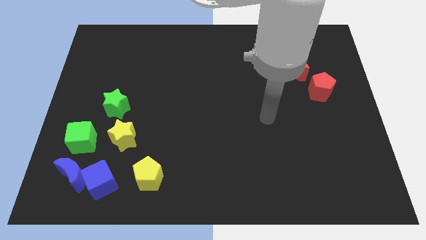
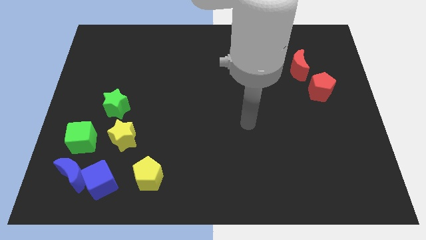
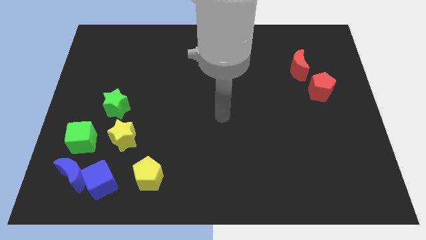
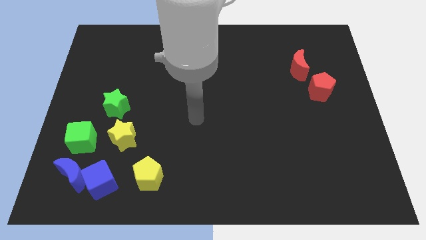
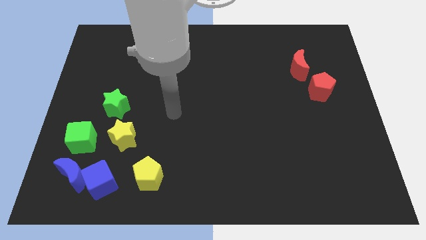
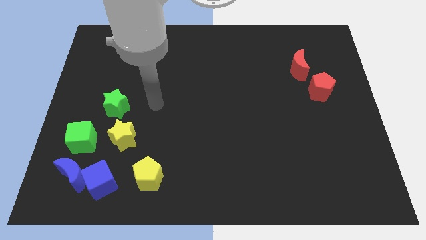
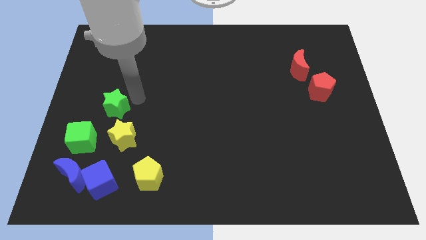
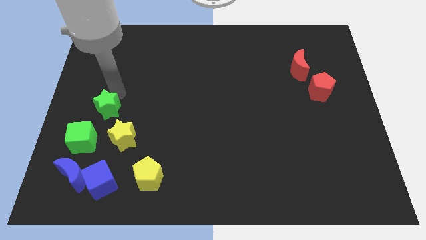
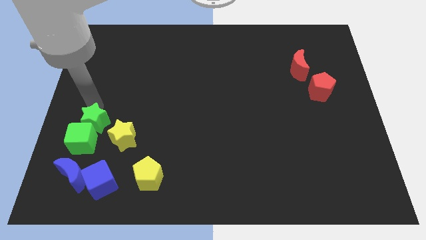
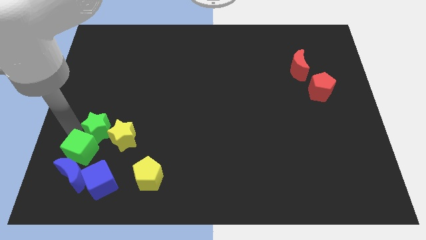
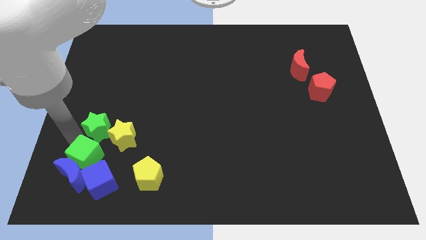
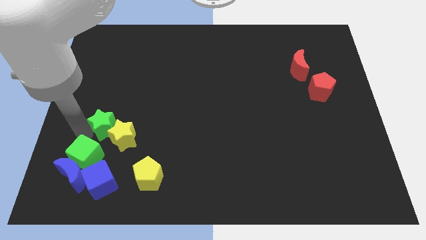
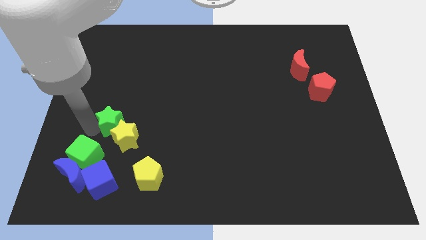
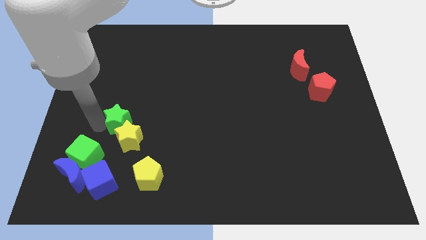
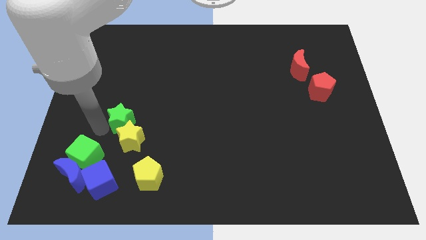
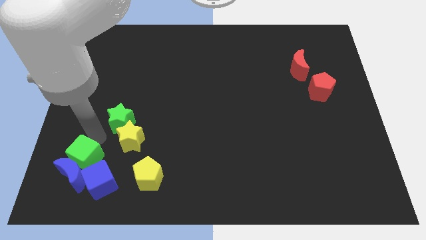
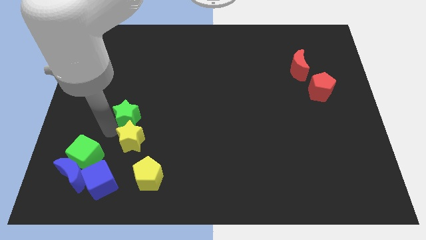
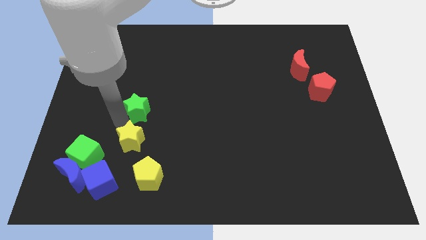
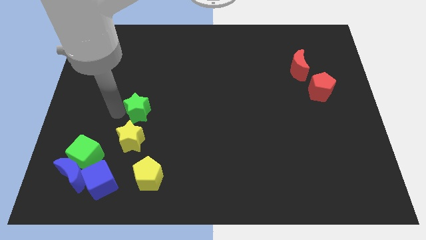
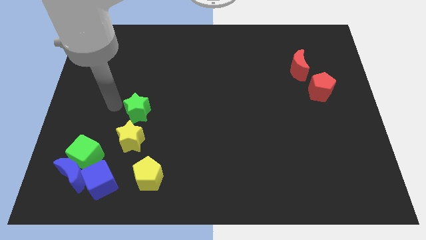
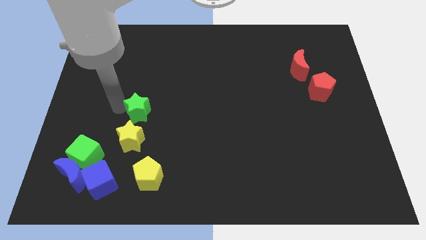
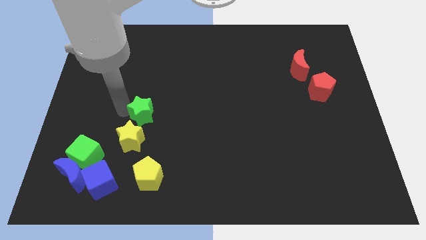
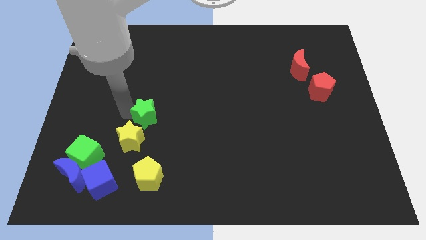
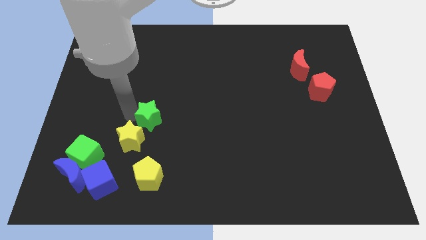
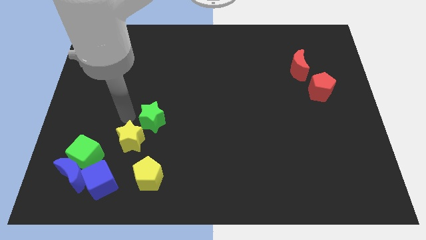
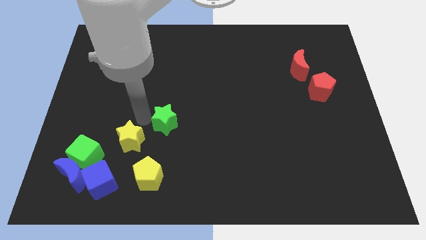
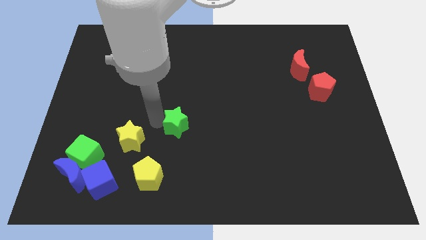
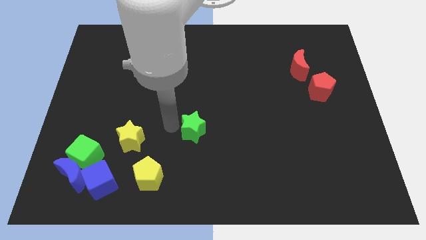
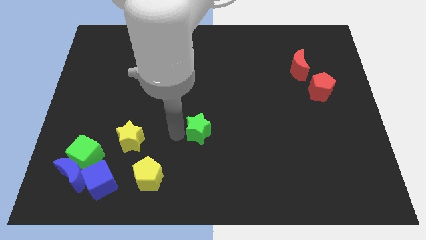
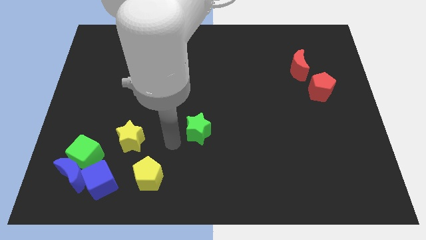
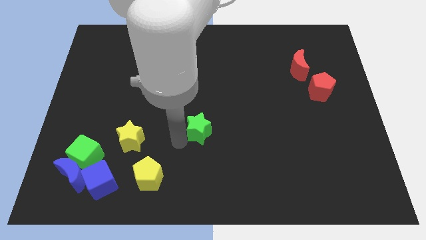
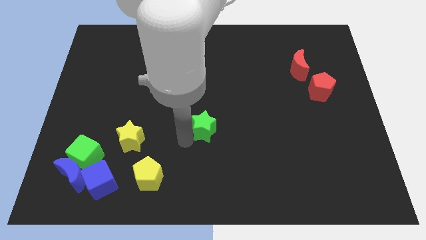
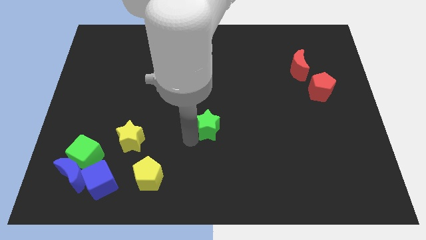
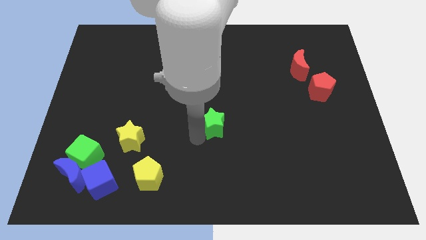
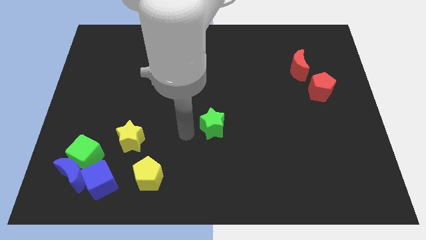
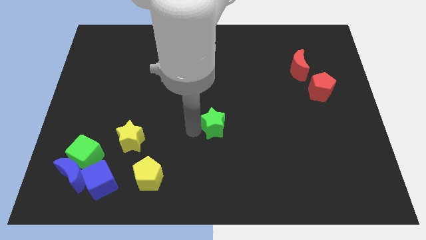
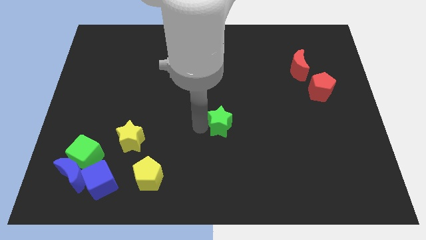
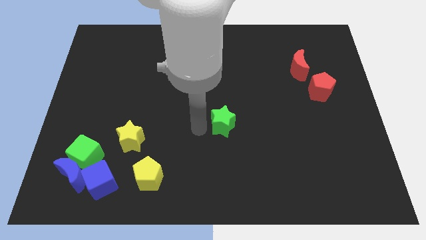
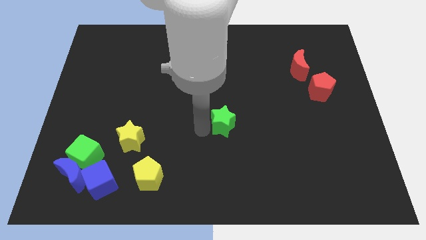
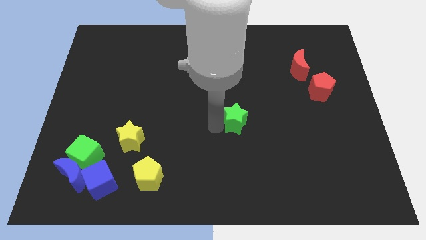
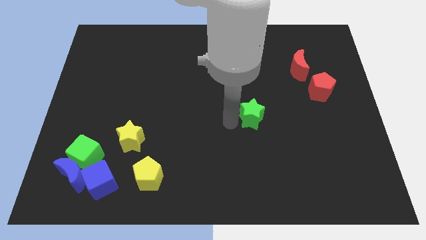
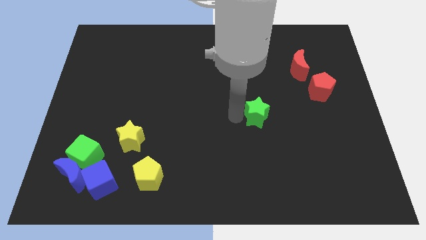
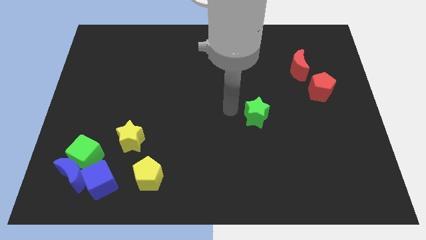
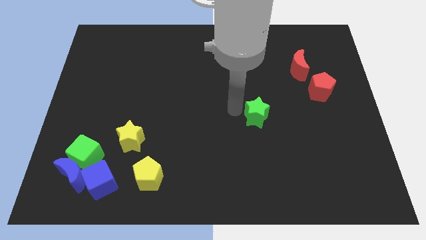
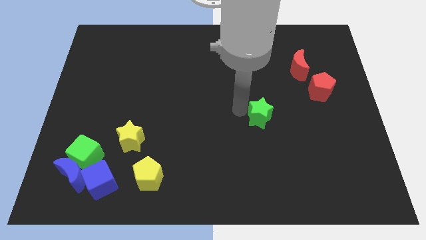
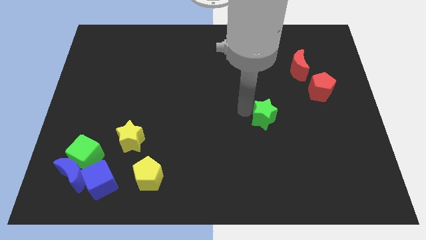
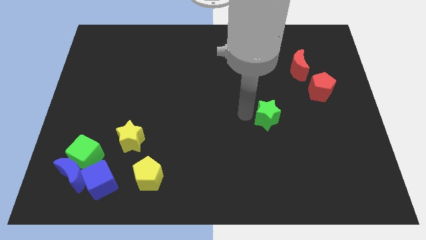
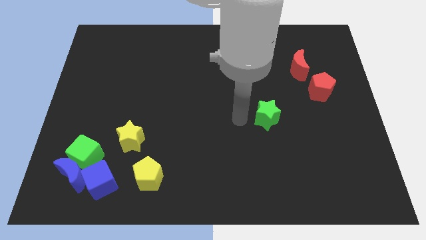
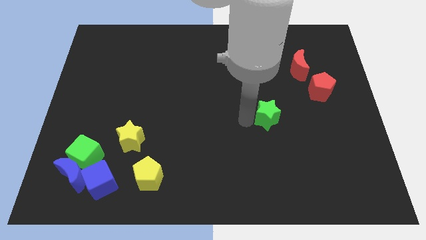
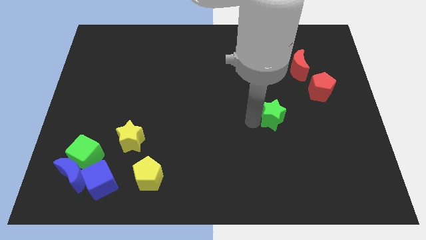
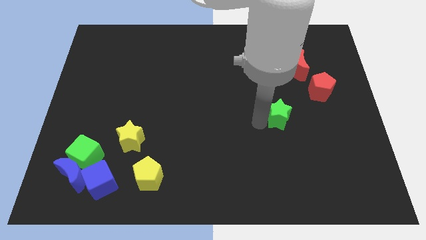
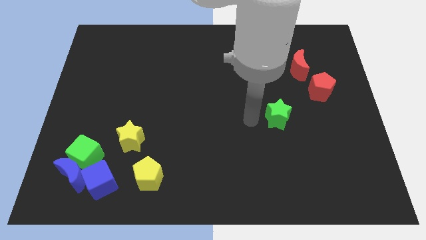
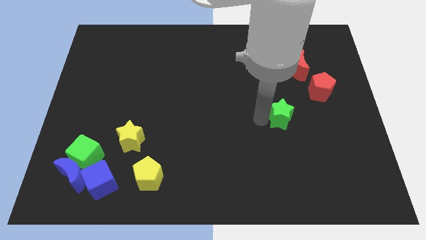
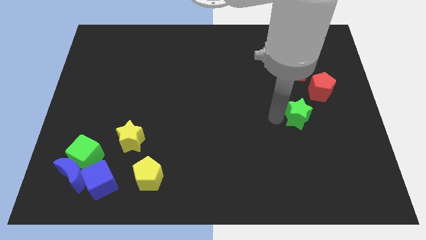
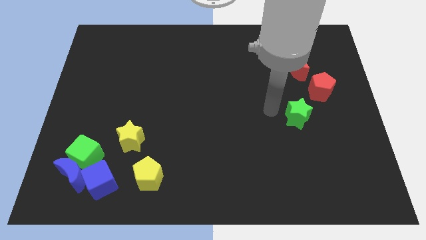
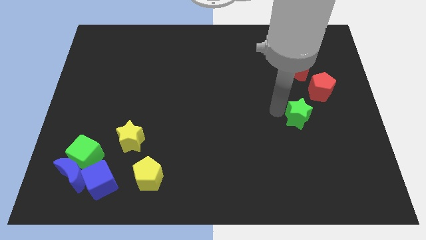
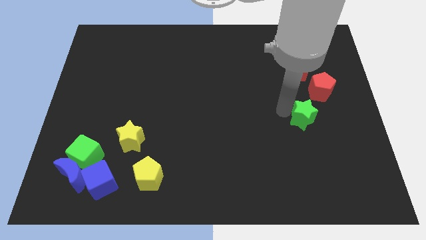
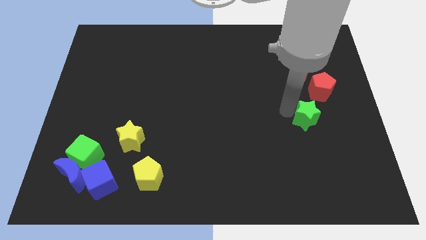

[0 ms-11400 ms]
move the green star to the bottom of the red pentagon
